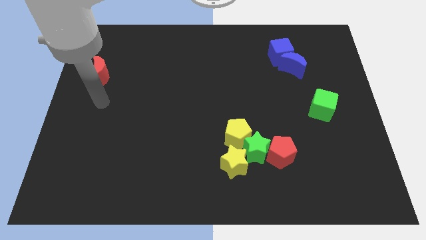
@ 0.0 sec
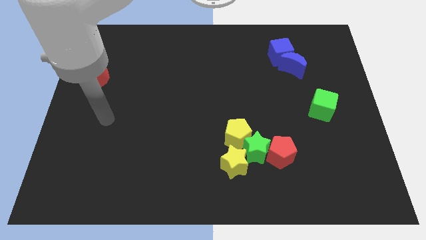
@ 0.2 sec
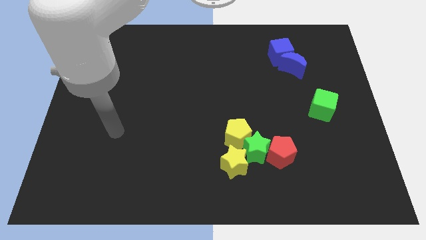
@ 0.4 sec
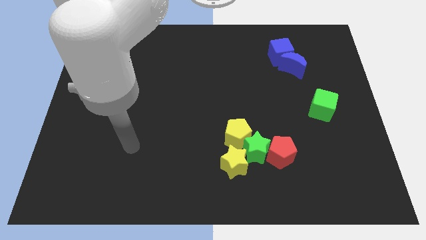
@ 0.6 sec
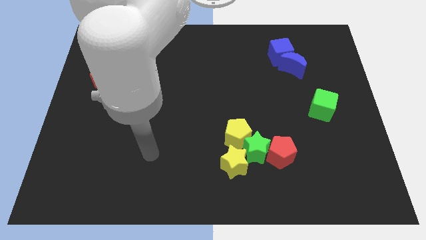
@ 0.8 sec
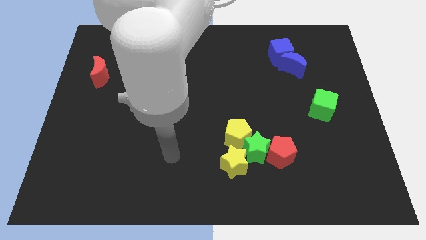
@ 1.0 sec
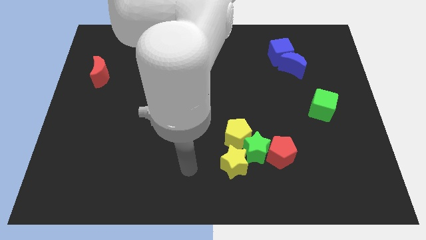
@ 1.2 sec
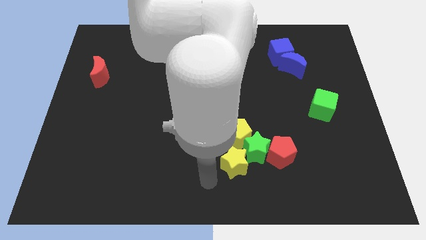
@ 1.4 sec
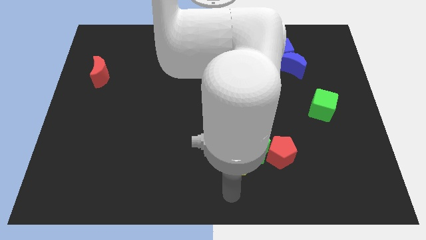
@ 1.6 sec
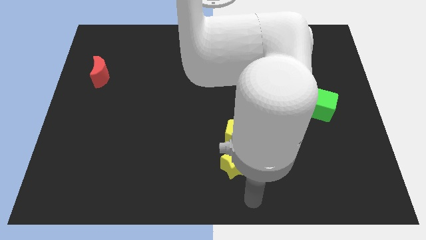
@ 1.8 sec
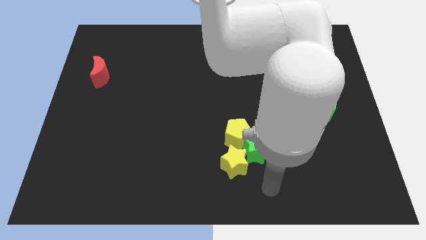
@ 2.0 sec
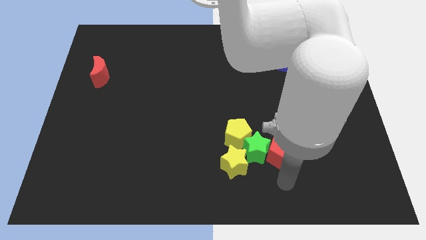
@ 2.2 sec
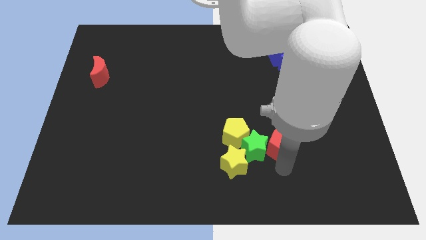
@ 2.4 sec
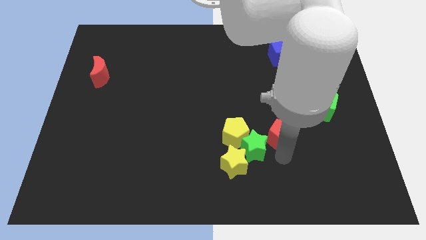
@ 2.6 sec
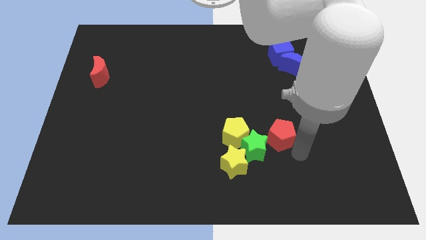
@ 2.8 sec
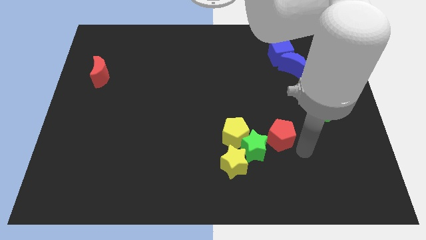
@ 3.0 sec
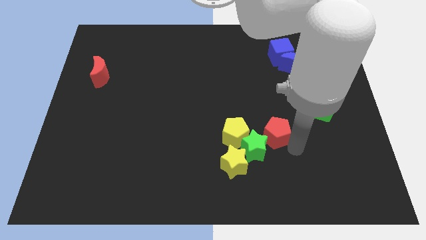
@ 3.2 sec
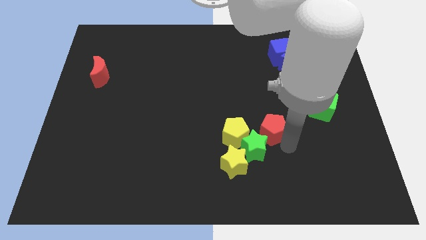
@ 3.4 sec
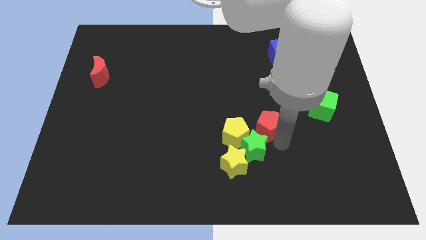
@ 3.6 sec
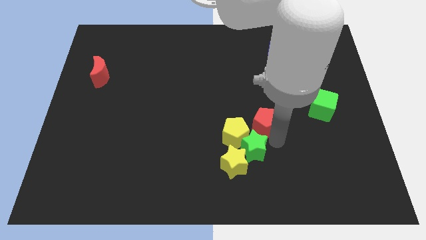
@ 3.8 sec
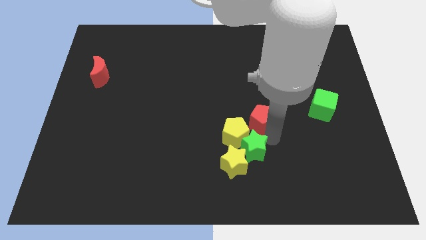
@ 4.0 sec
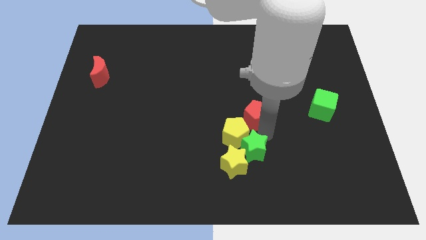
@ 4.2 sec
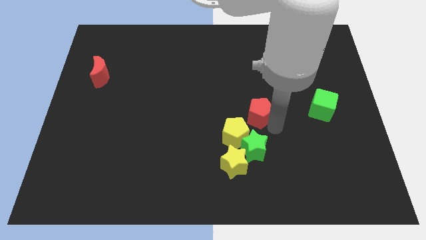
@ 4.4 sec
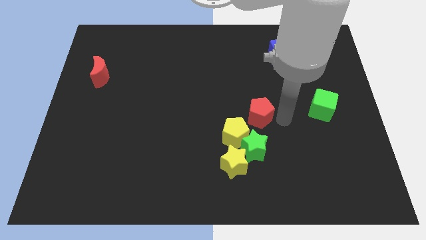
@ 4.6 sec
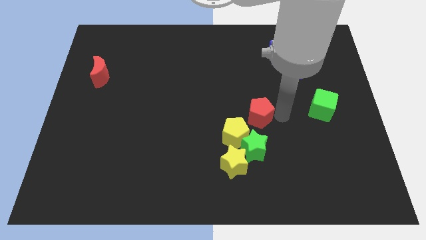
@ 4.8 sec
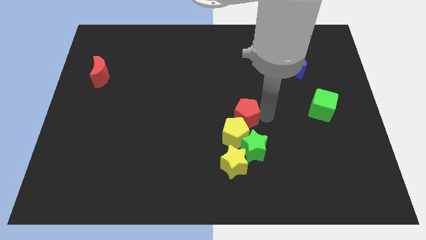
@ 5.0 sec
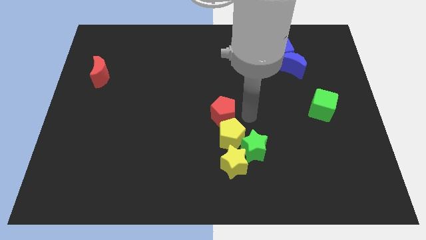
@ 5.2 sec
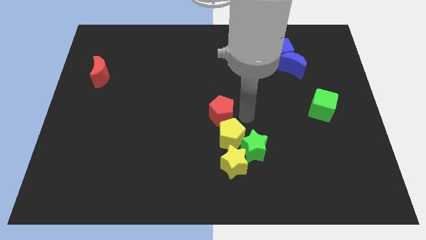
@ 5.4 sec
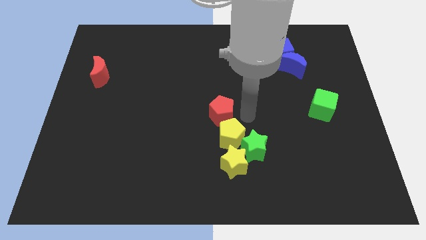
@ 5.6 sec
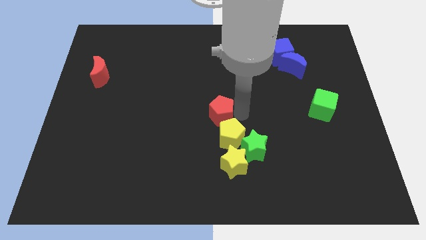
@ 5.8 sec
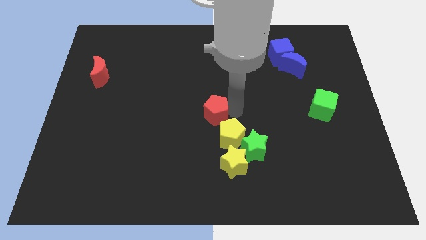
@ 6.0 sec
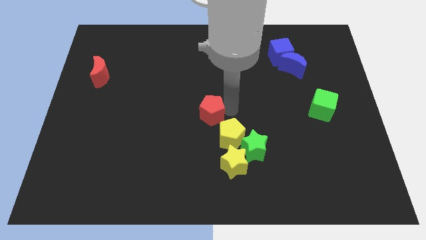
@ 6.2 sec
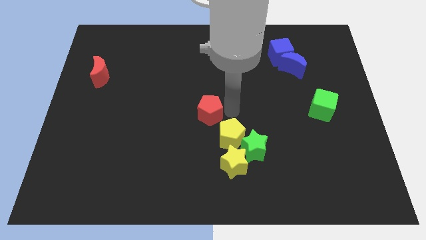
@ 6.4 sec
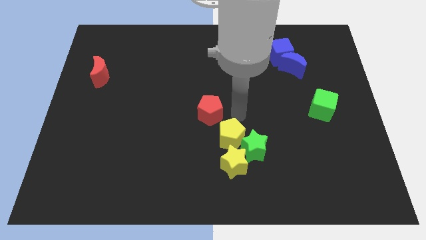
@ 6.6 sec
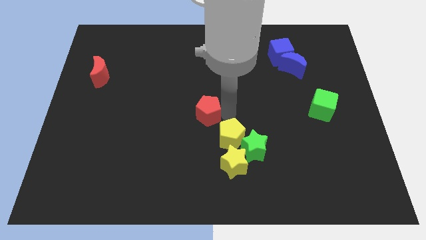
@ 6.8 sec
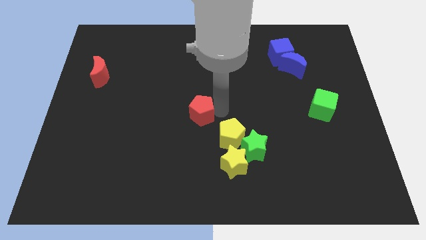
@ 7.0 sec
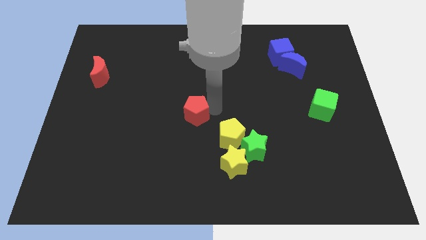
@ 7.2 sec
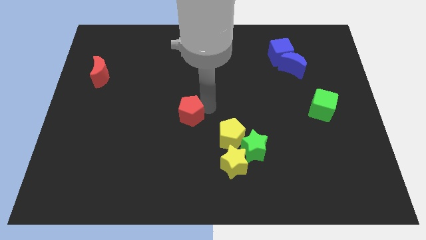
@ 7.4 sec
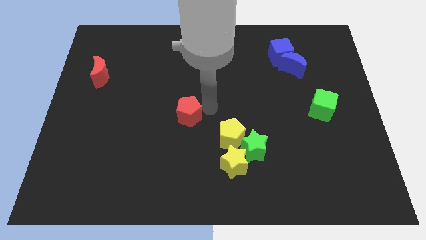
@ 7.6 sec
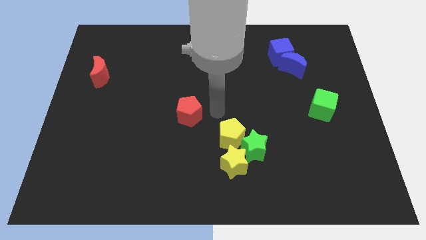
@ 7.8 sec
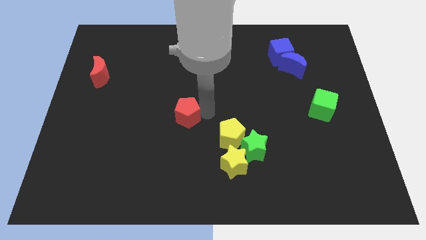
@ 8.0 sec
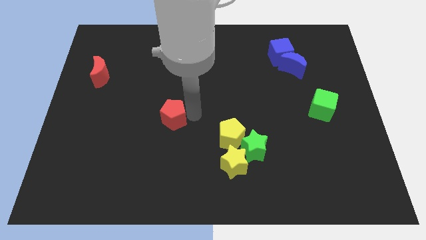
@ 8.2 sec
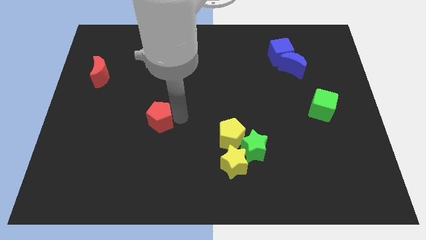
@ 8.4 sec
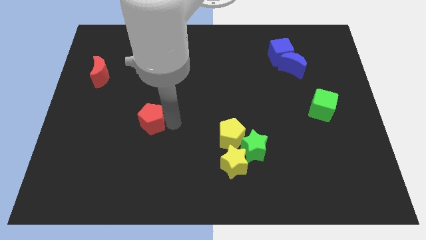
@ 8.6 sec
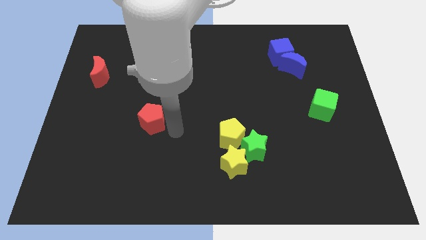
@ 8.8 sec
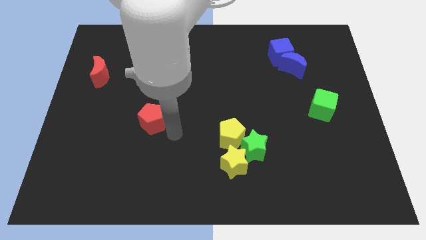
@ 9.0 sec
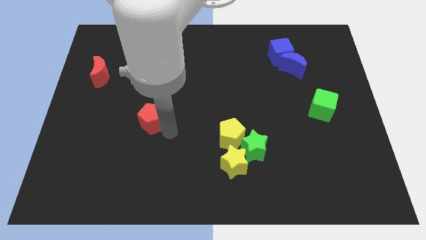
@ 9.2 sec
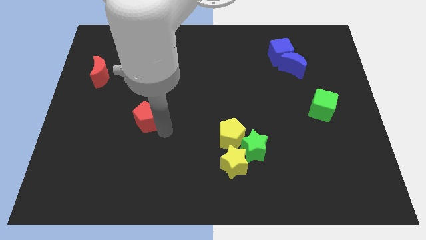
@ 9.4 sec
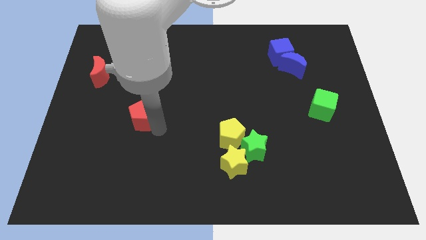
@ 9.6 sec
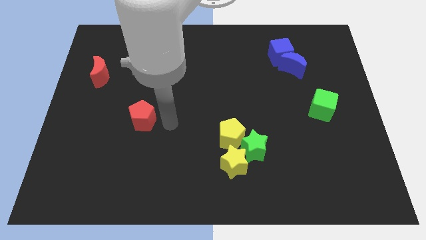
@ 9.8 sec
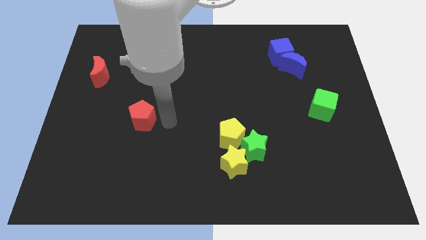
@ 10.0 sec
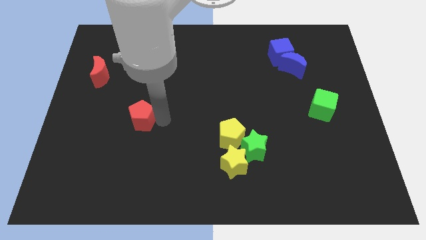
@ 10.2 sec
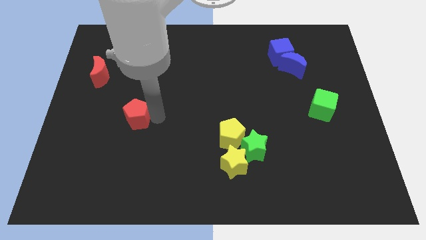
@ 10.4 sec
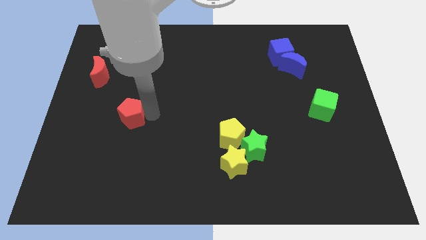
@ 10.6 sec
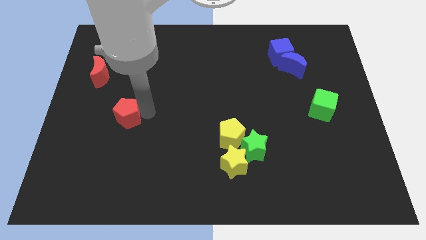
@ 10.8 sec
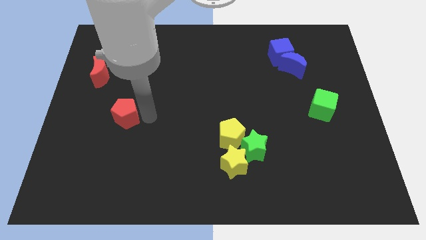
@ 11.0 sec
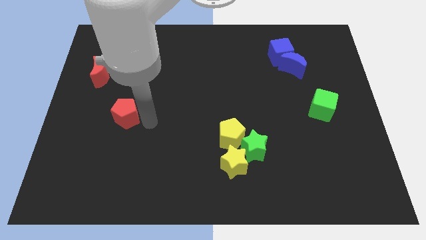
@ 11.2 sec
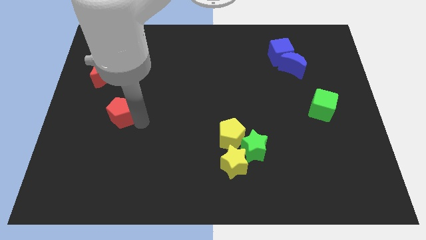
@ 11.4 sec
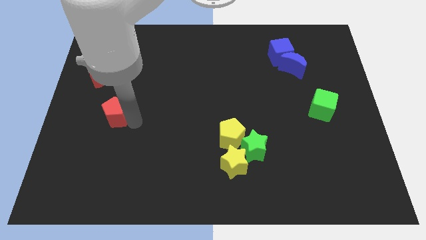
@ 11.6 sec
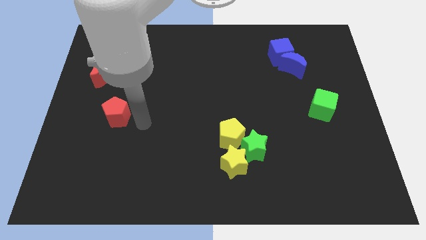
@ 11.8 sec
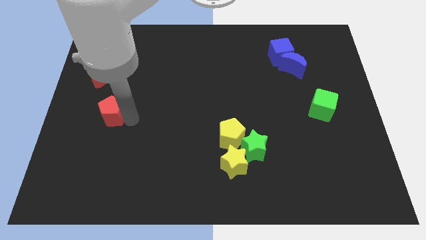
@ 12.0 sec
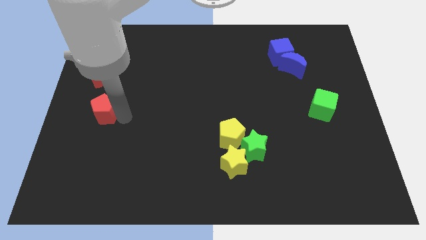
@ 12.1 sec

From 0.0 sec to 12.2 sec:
put the red pentagon to the bottom side of the red moon

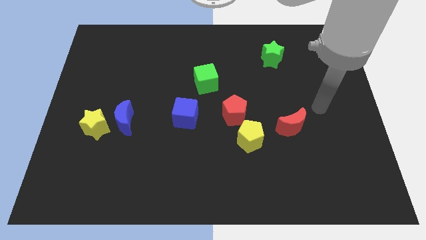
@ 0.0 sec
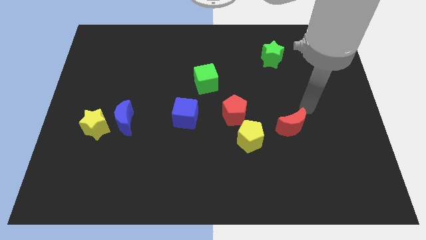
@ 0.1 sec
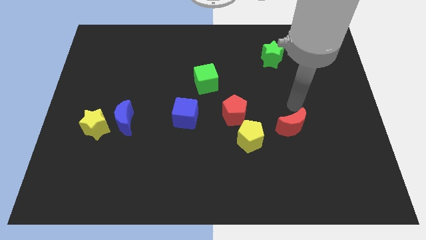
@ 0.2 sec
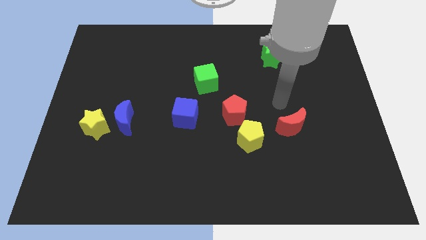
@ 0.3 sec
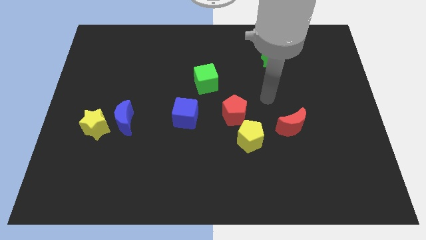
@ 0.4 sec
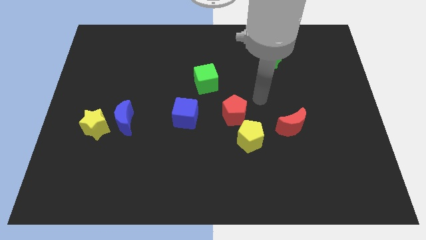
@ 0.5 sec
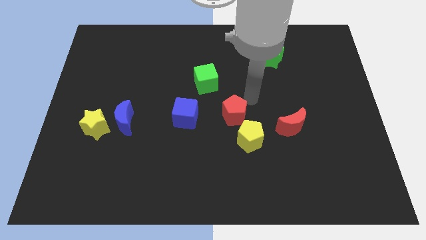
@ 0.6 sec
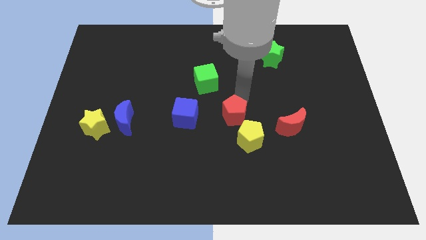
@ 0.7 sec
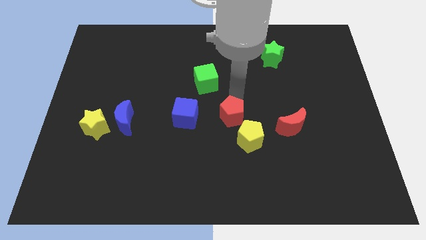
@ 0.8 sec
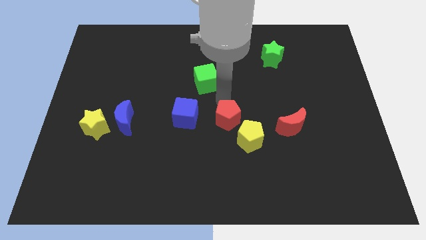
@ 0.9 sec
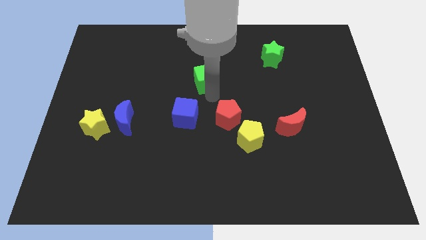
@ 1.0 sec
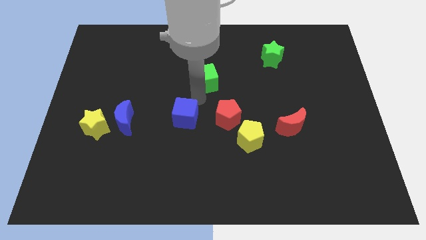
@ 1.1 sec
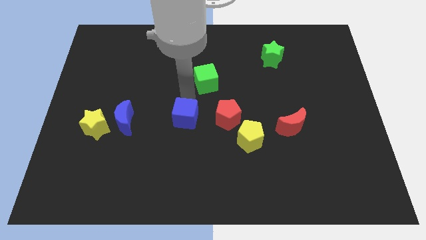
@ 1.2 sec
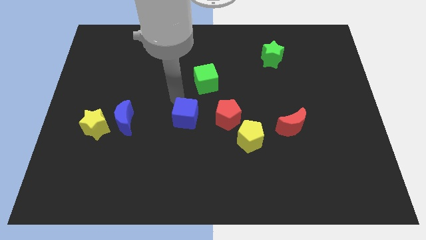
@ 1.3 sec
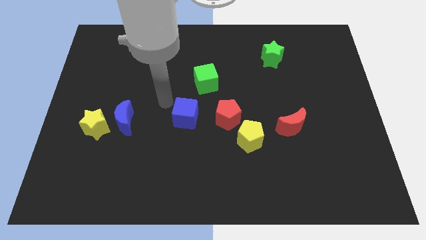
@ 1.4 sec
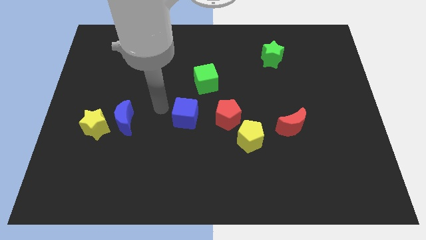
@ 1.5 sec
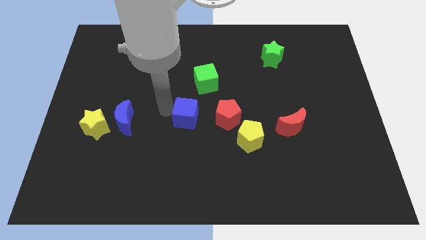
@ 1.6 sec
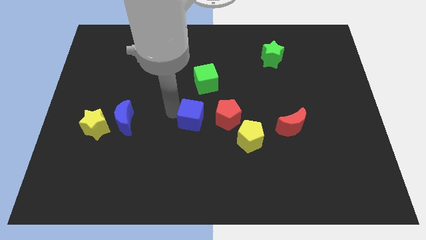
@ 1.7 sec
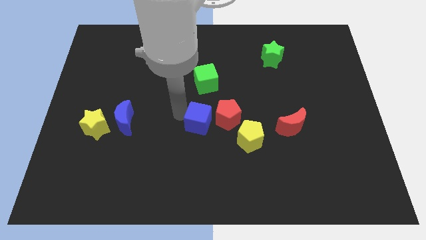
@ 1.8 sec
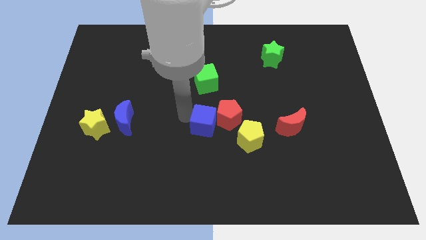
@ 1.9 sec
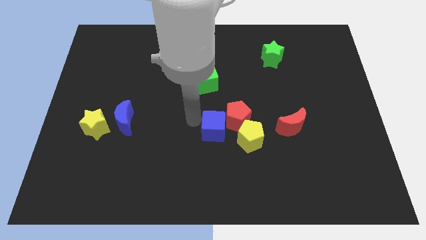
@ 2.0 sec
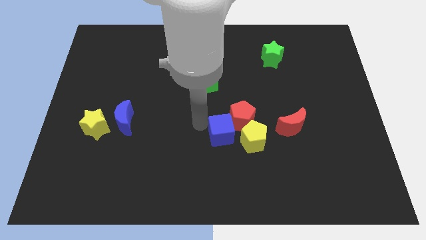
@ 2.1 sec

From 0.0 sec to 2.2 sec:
push the blue cube left of the red moon

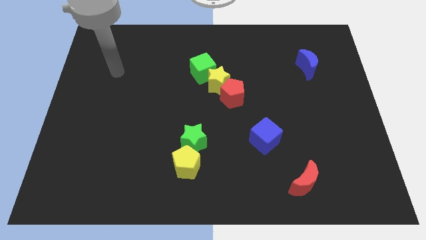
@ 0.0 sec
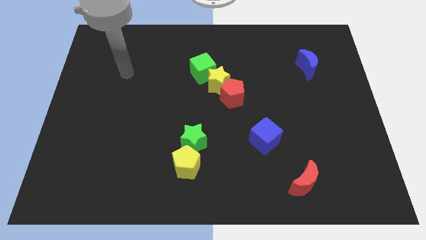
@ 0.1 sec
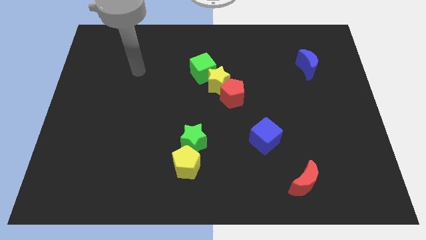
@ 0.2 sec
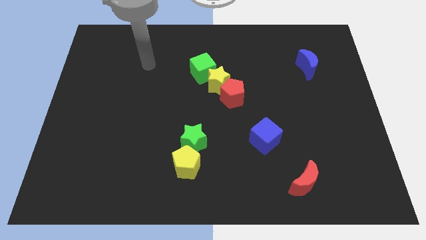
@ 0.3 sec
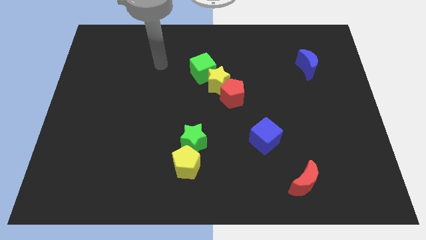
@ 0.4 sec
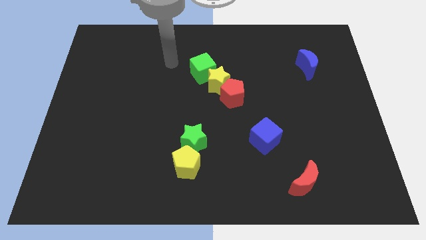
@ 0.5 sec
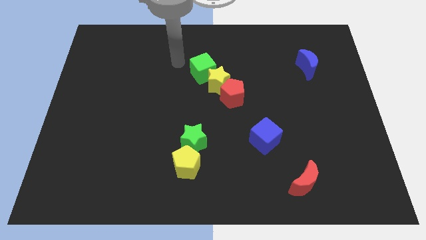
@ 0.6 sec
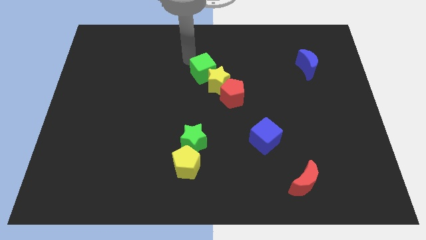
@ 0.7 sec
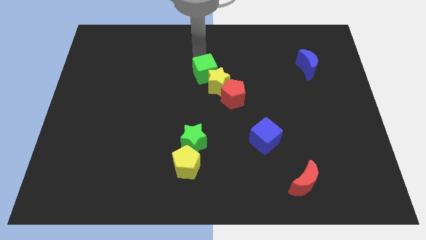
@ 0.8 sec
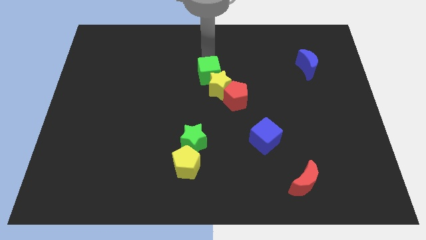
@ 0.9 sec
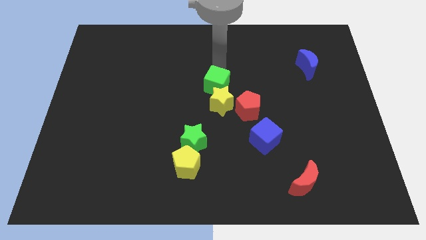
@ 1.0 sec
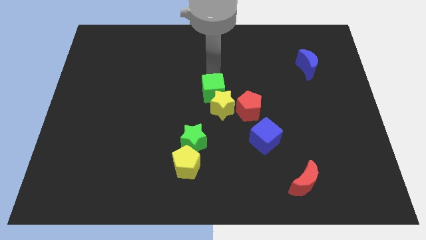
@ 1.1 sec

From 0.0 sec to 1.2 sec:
slide the yellow star diagonally up and to the left of the blue cube
